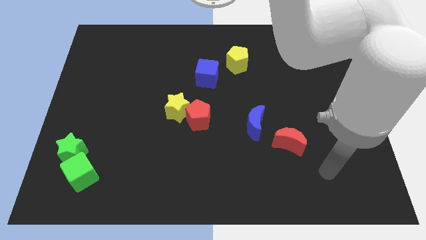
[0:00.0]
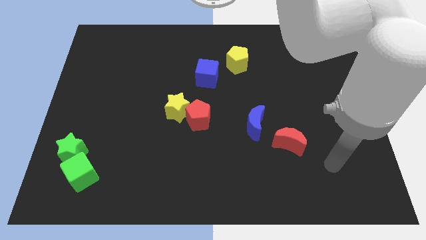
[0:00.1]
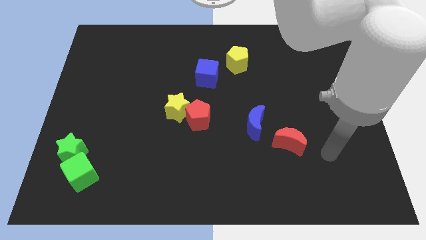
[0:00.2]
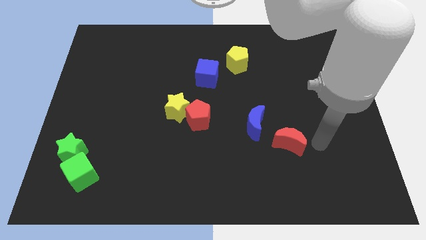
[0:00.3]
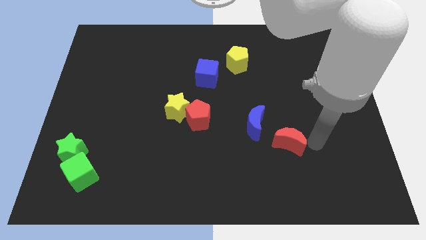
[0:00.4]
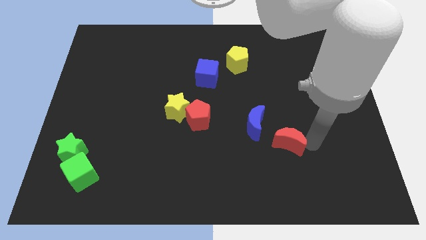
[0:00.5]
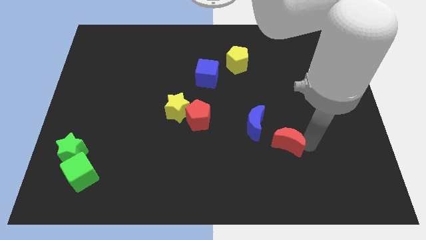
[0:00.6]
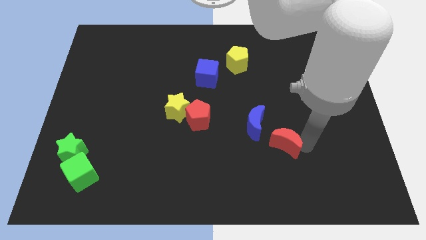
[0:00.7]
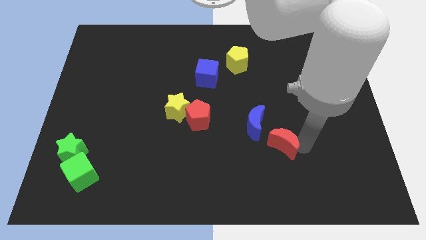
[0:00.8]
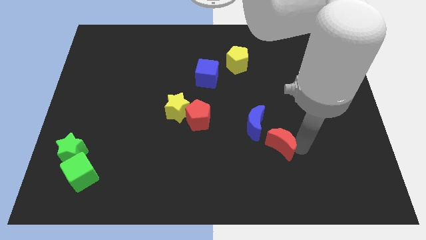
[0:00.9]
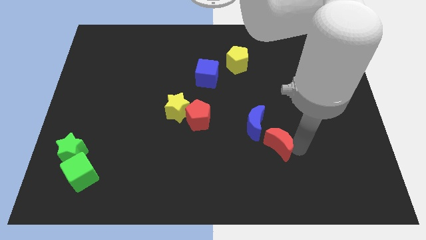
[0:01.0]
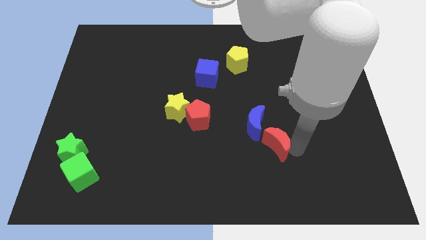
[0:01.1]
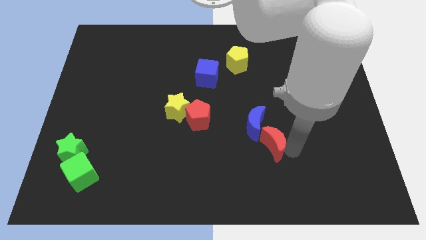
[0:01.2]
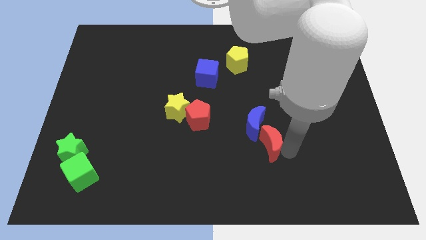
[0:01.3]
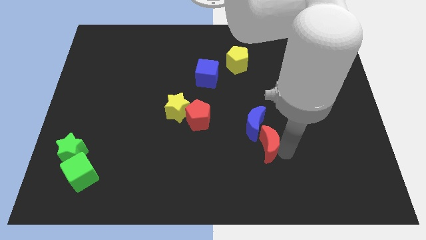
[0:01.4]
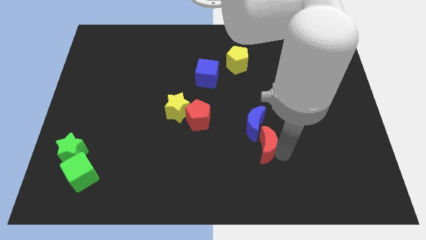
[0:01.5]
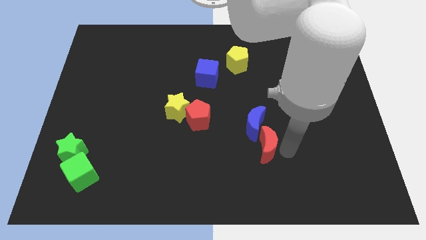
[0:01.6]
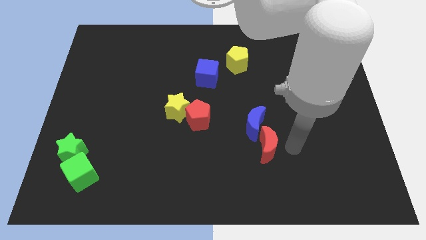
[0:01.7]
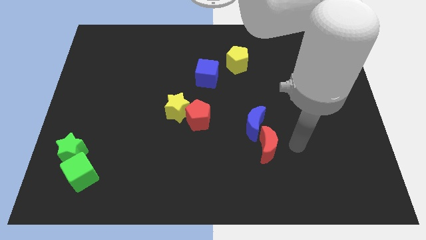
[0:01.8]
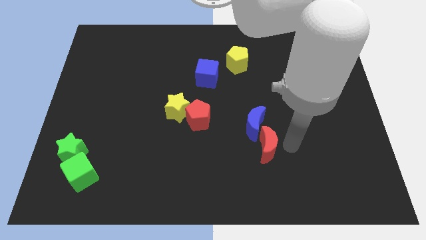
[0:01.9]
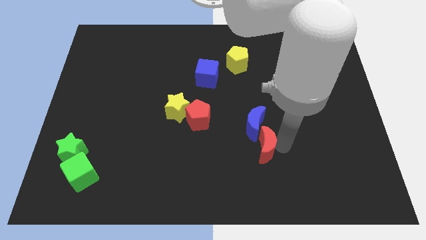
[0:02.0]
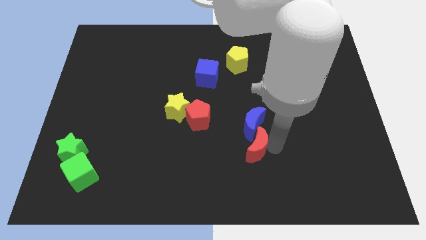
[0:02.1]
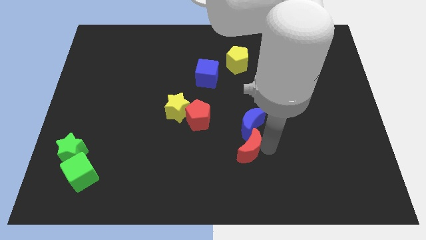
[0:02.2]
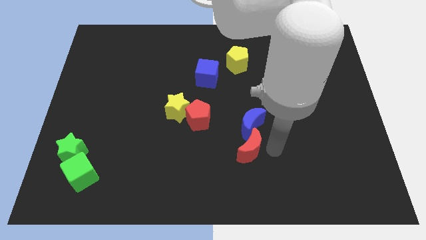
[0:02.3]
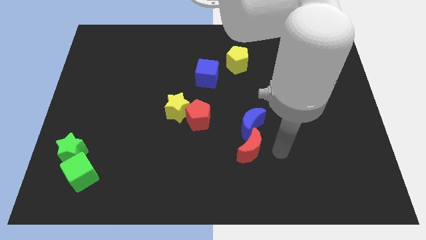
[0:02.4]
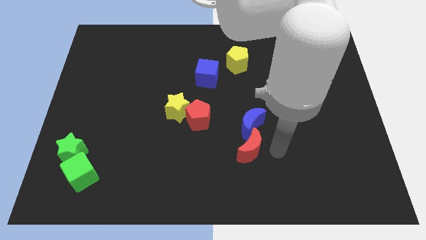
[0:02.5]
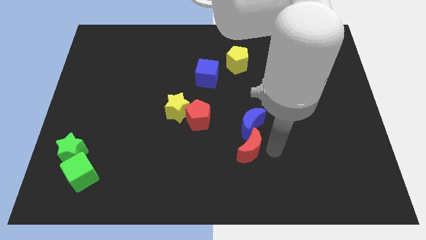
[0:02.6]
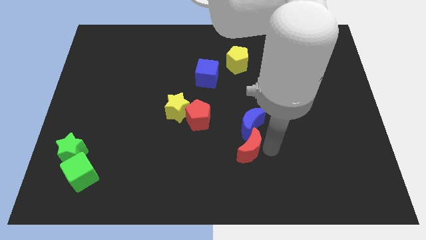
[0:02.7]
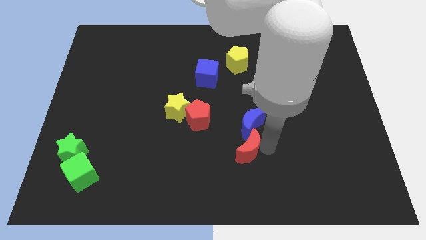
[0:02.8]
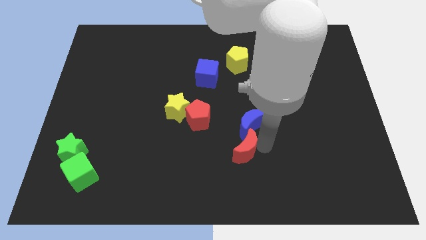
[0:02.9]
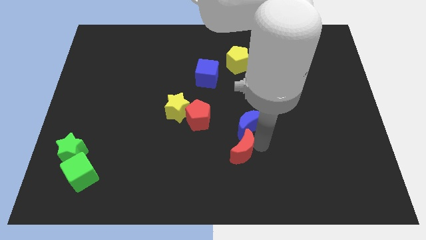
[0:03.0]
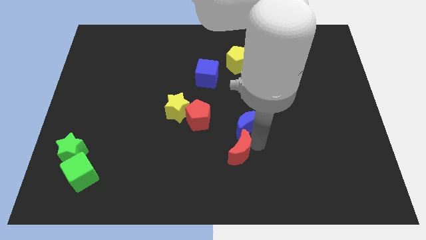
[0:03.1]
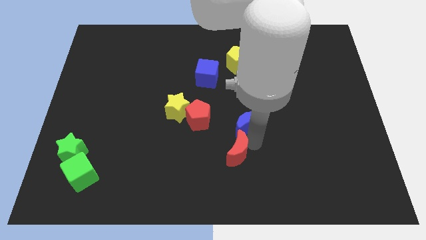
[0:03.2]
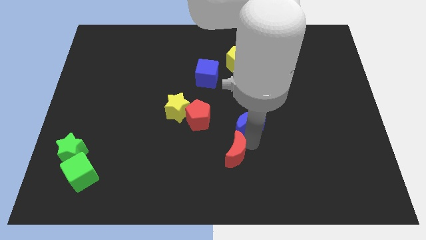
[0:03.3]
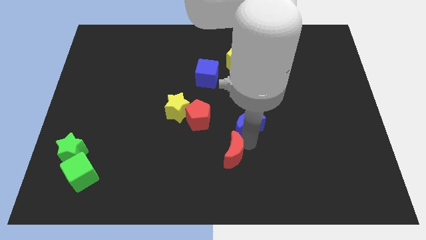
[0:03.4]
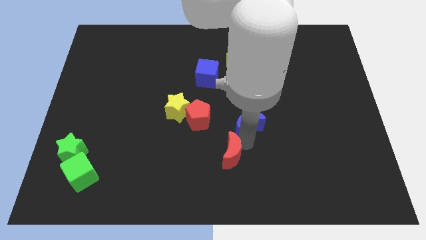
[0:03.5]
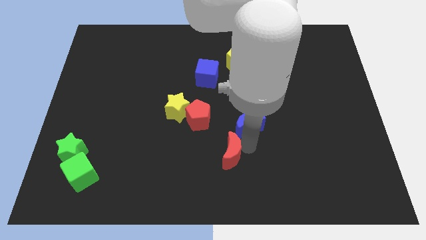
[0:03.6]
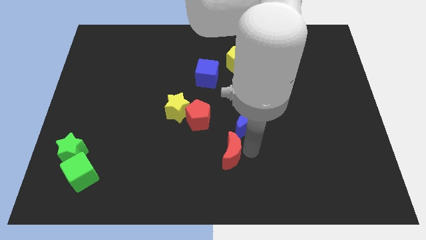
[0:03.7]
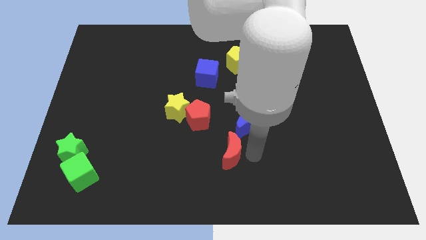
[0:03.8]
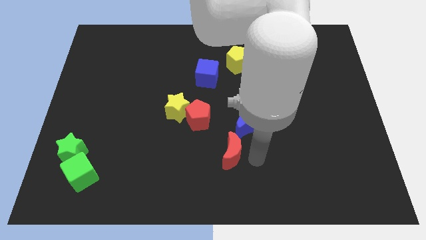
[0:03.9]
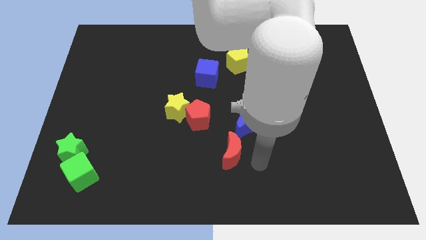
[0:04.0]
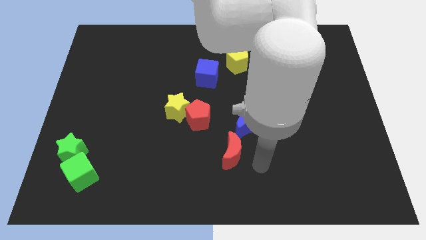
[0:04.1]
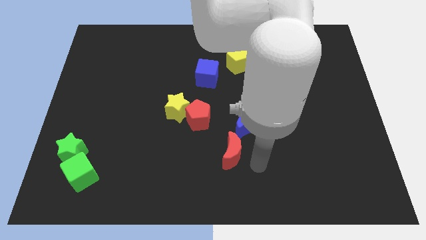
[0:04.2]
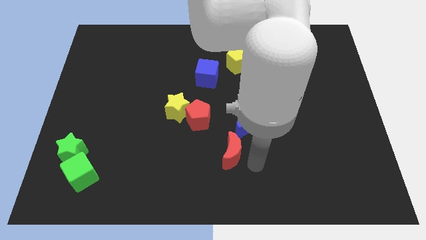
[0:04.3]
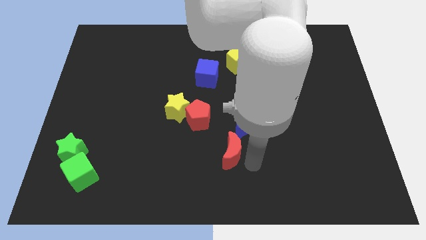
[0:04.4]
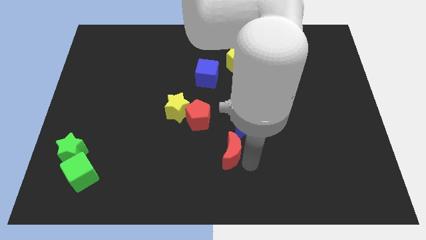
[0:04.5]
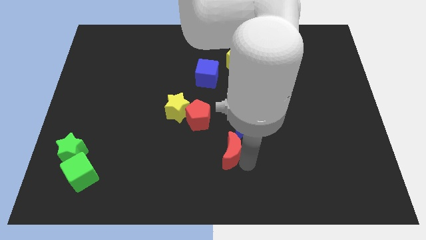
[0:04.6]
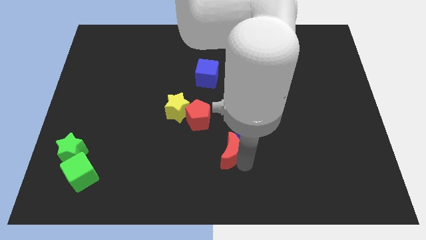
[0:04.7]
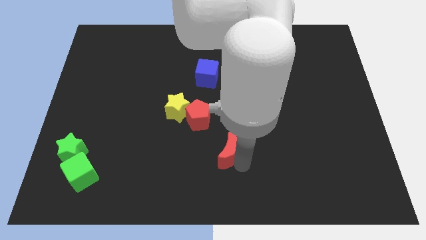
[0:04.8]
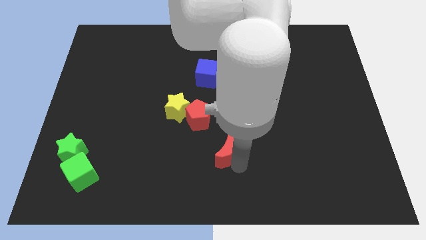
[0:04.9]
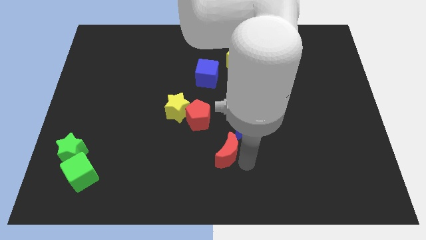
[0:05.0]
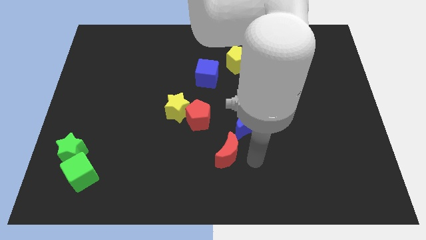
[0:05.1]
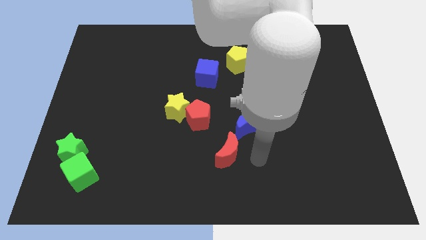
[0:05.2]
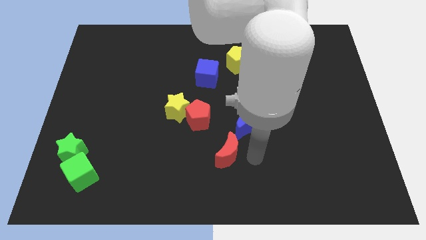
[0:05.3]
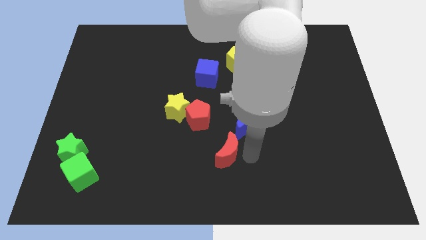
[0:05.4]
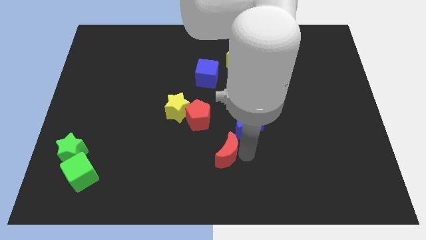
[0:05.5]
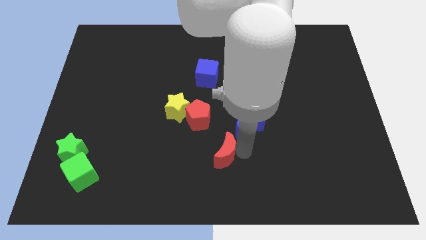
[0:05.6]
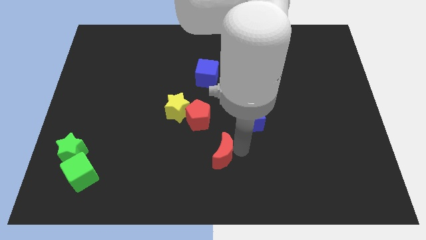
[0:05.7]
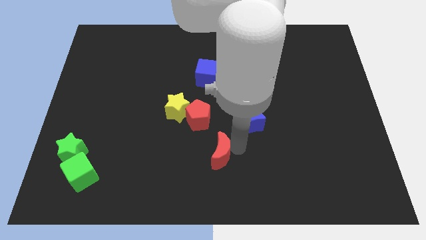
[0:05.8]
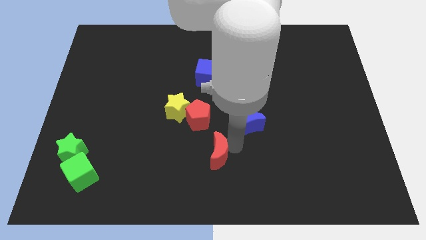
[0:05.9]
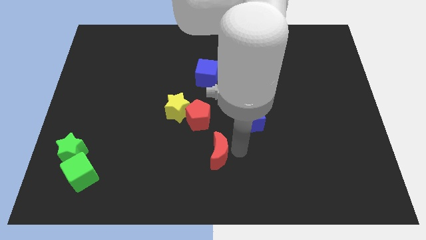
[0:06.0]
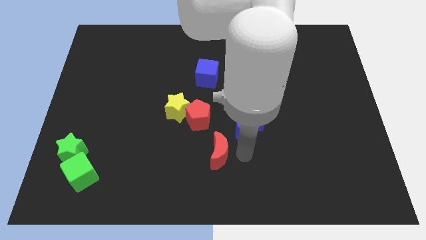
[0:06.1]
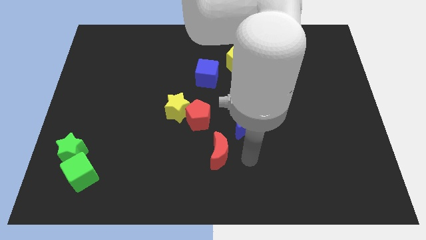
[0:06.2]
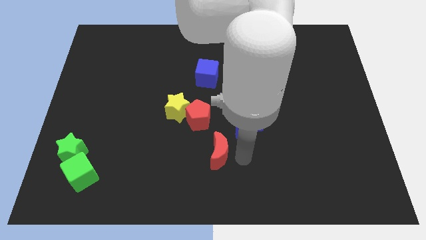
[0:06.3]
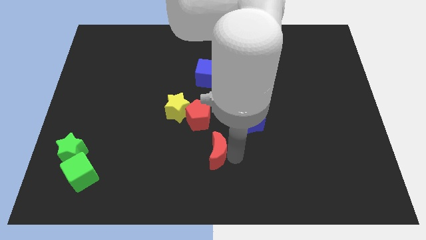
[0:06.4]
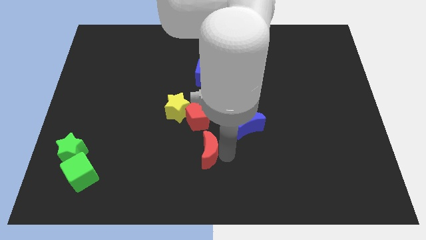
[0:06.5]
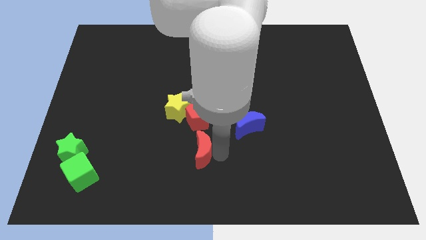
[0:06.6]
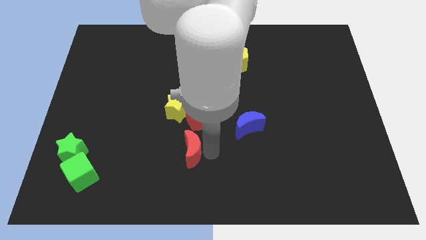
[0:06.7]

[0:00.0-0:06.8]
slide the red moon to the left

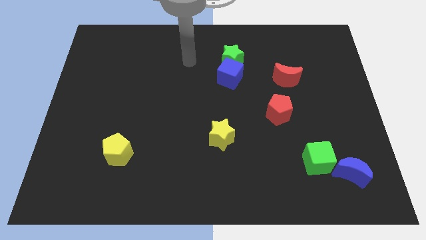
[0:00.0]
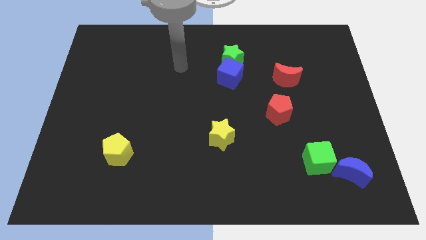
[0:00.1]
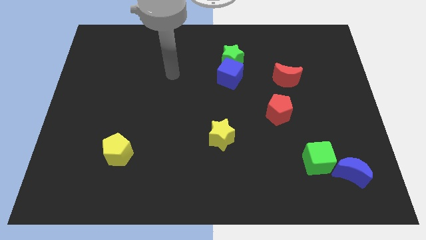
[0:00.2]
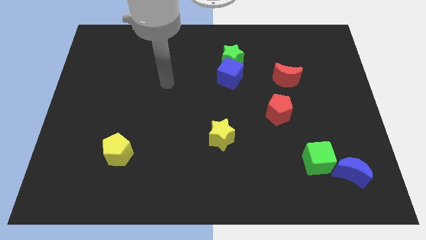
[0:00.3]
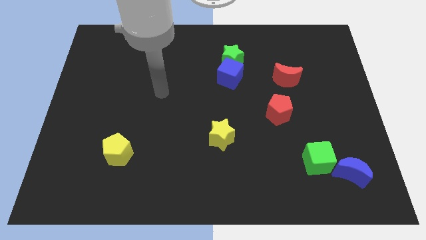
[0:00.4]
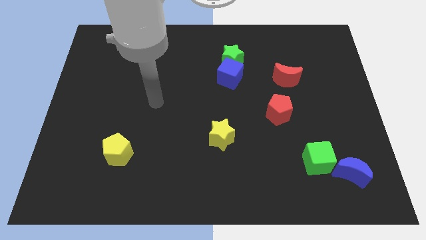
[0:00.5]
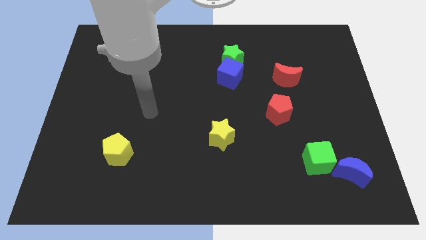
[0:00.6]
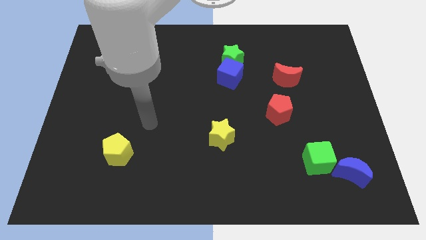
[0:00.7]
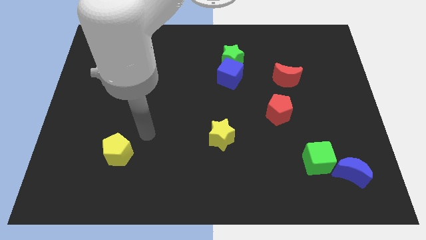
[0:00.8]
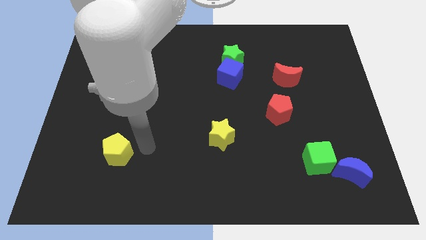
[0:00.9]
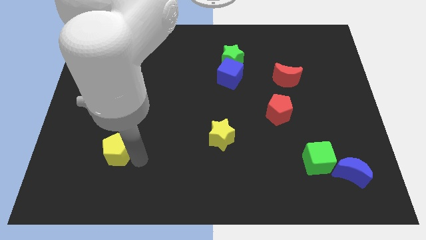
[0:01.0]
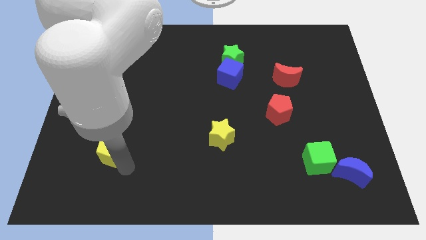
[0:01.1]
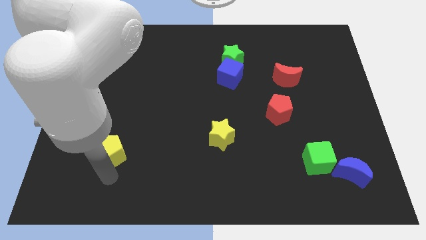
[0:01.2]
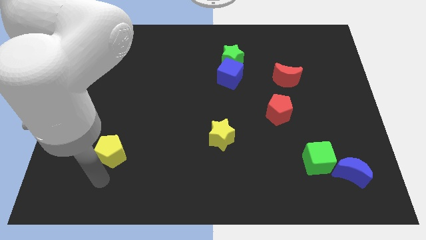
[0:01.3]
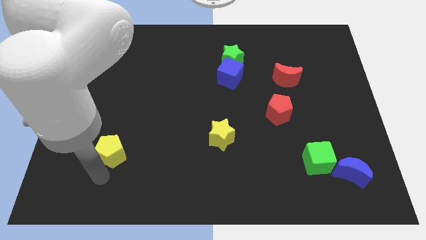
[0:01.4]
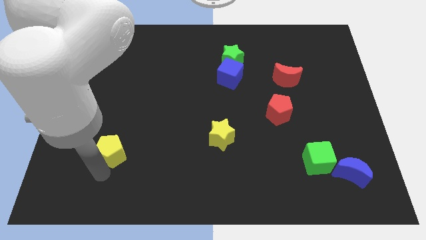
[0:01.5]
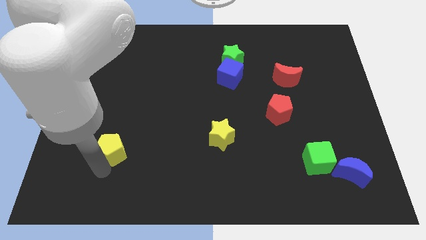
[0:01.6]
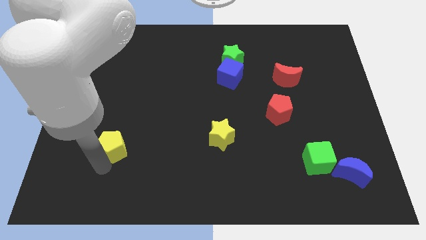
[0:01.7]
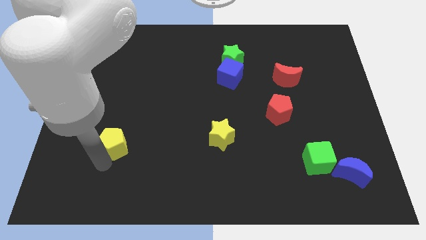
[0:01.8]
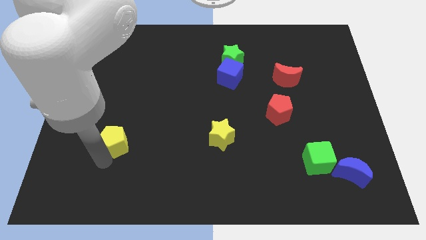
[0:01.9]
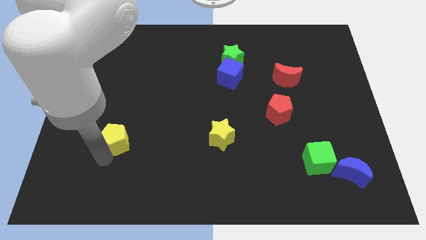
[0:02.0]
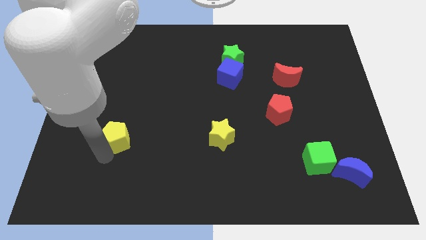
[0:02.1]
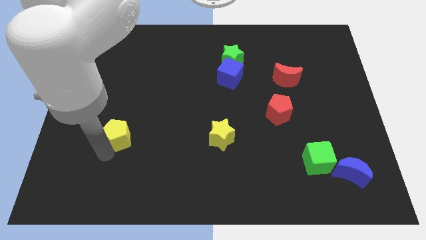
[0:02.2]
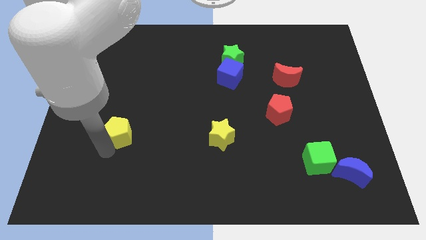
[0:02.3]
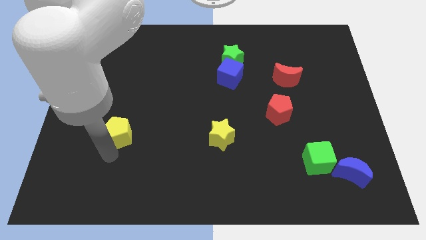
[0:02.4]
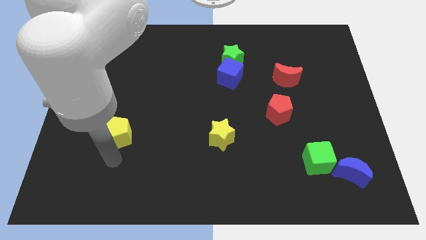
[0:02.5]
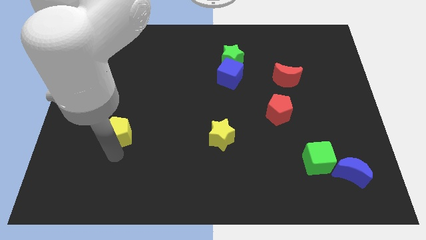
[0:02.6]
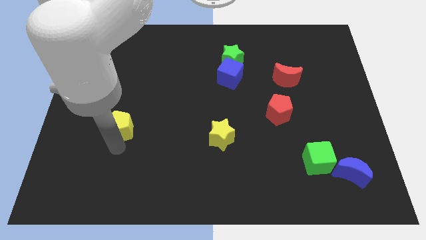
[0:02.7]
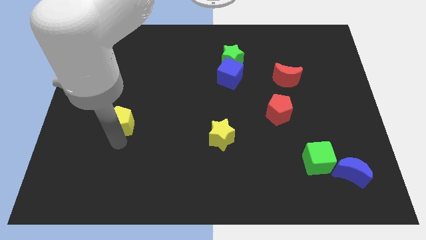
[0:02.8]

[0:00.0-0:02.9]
slightly move the yellow pentagon up
